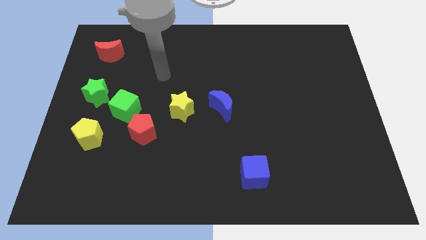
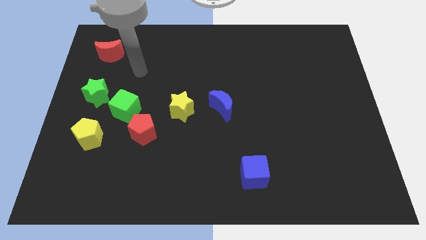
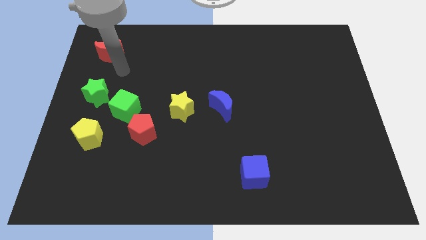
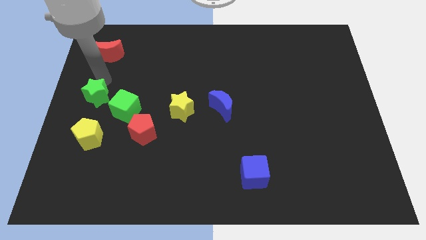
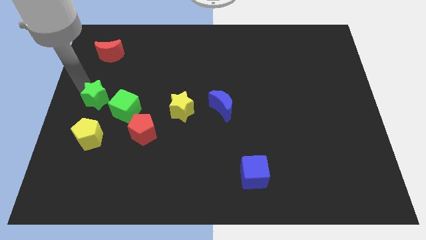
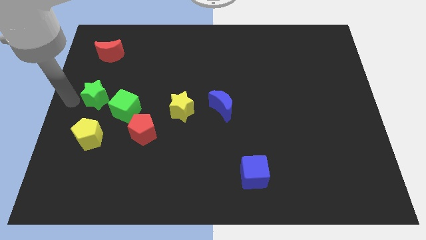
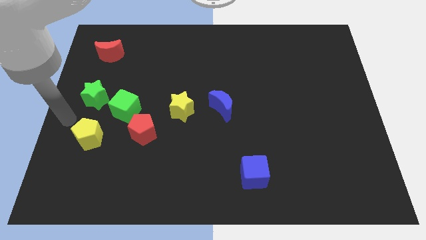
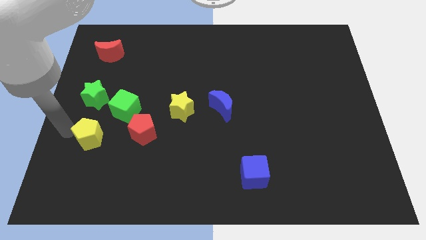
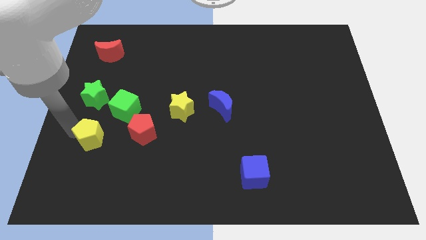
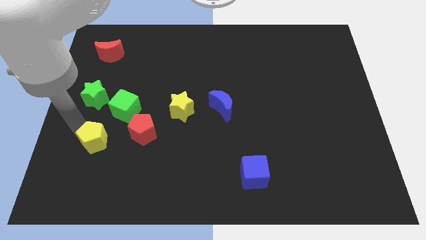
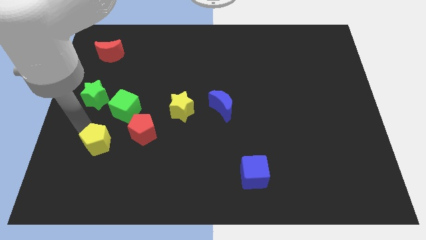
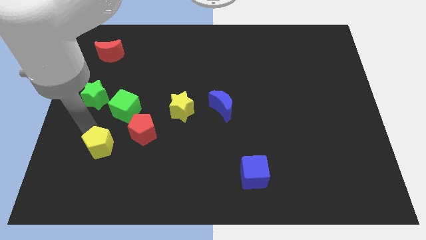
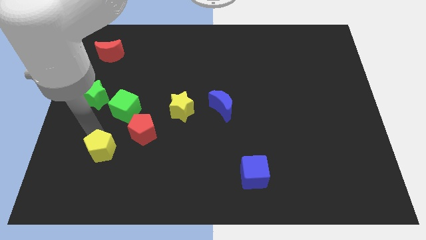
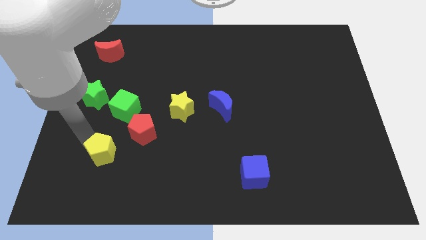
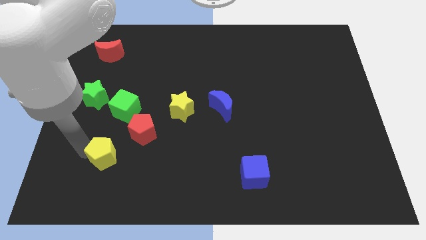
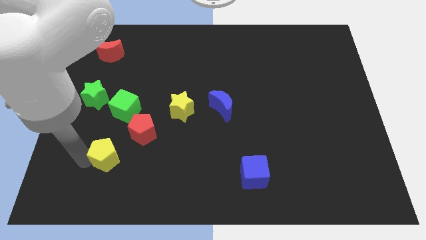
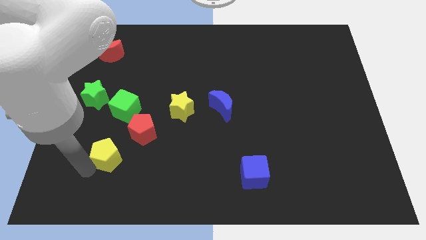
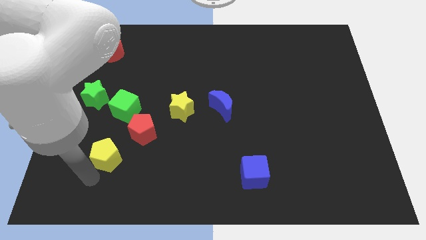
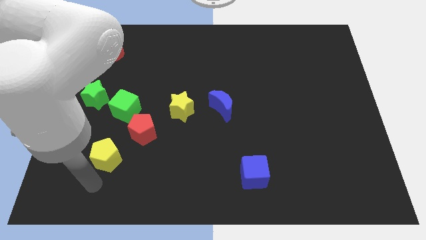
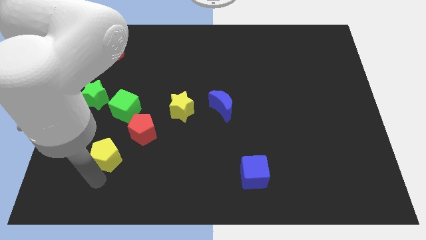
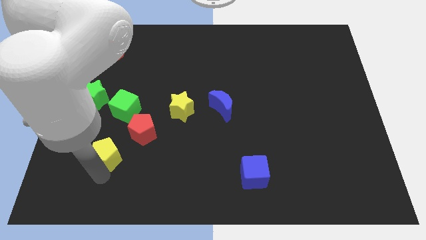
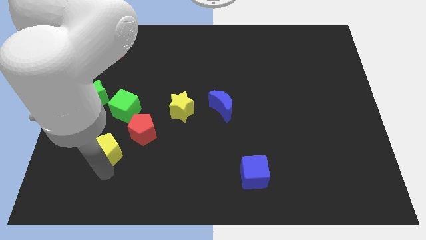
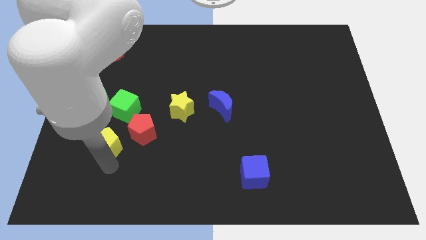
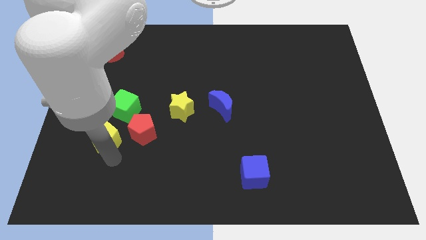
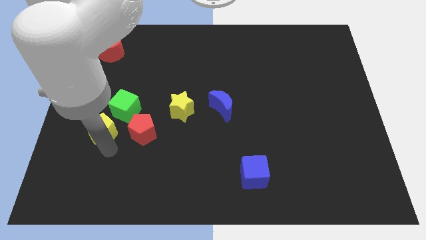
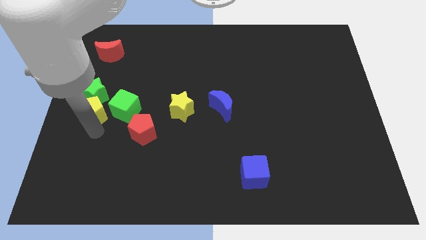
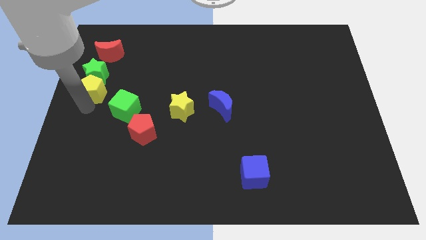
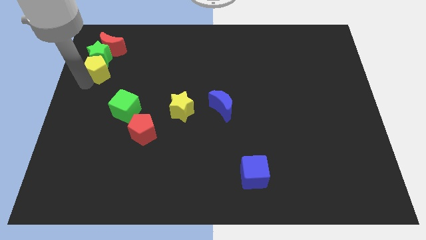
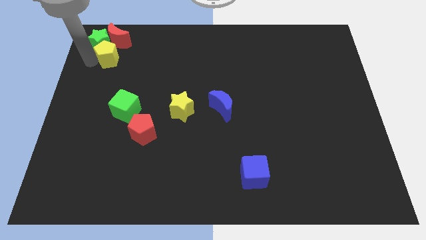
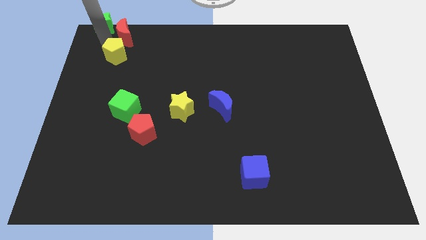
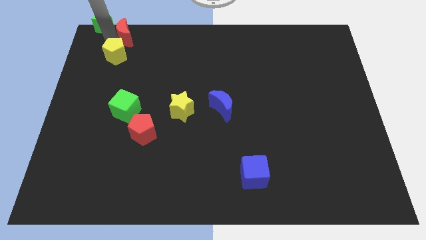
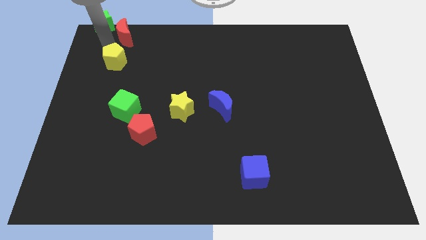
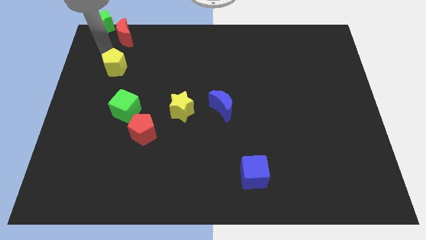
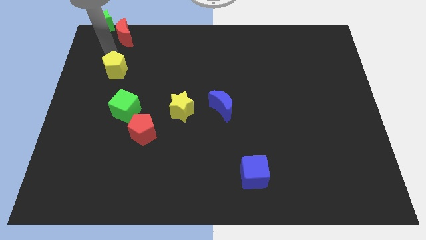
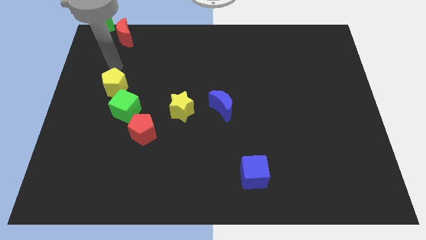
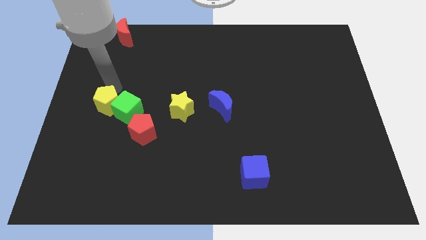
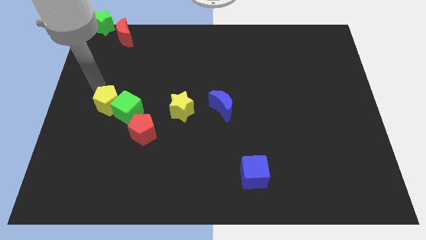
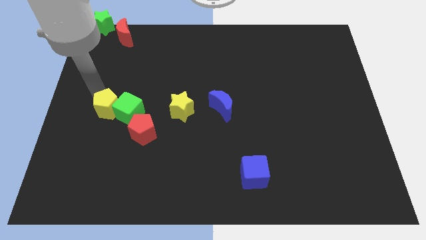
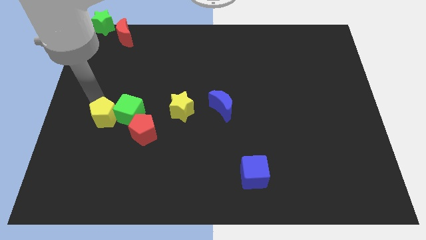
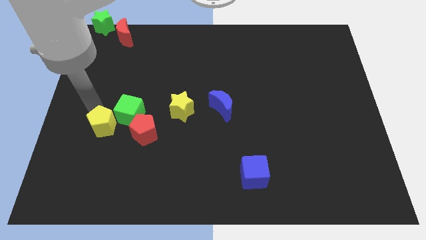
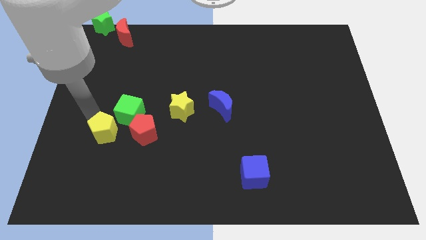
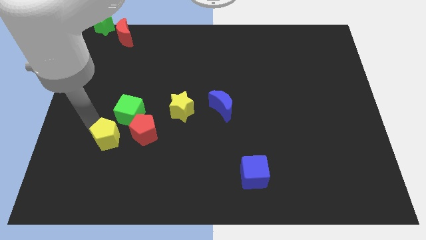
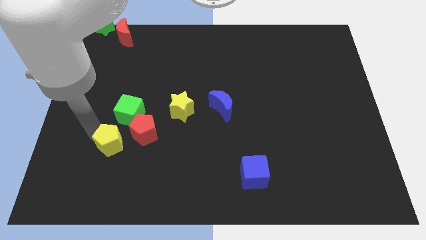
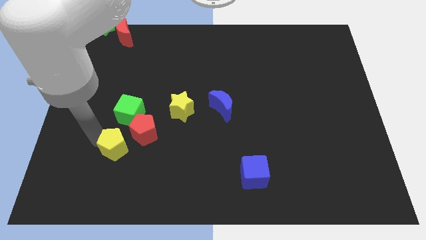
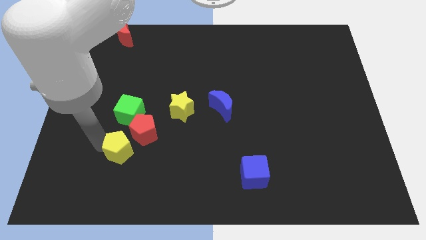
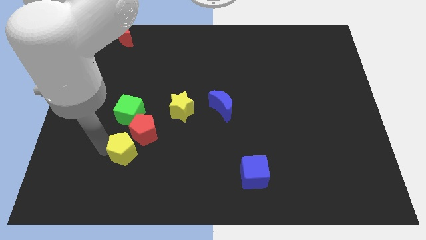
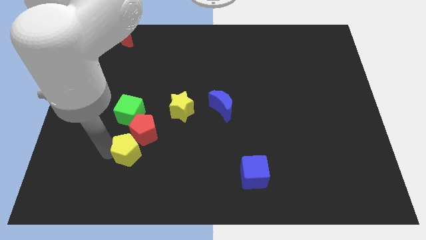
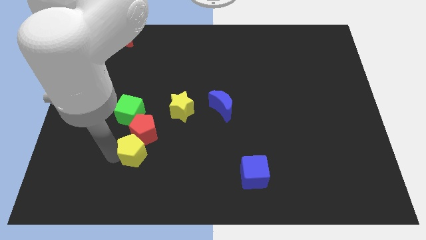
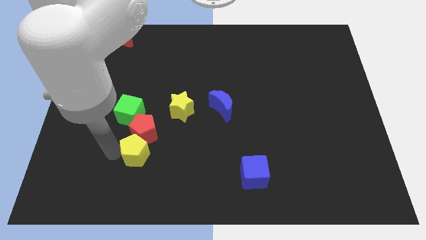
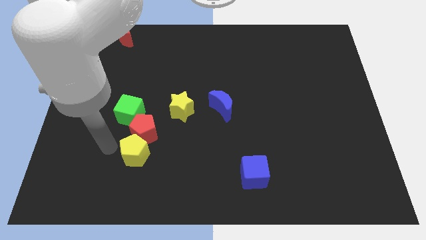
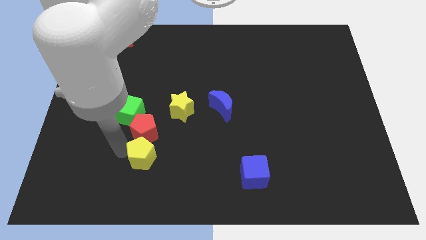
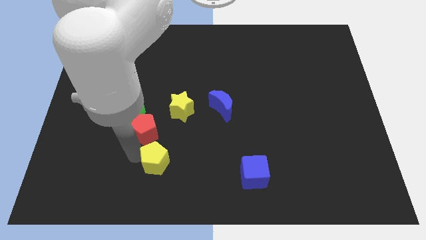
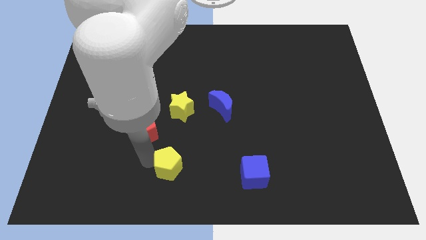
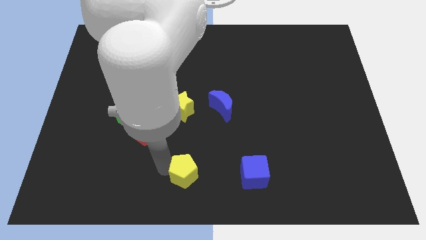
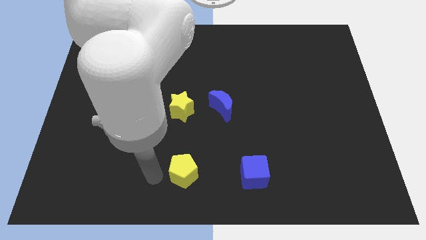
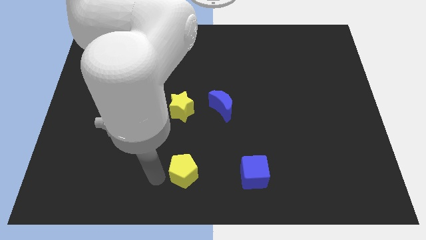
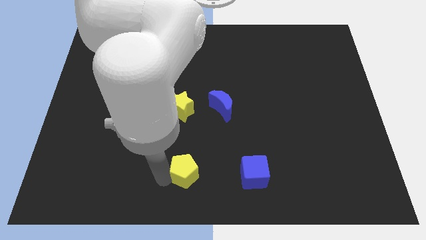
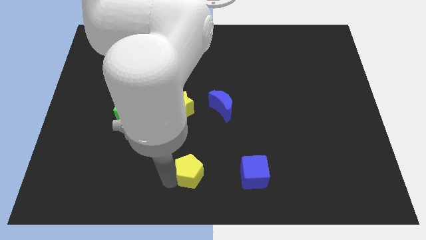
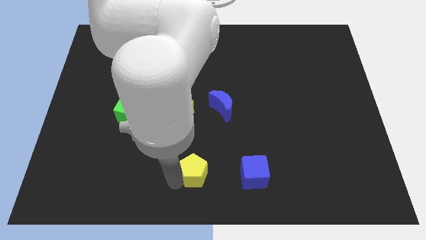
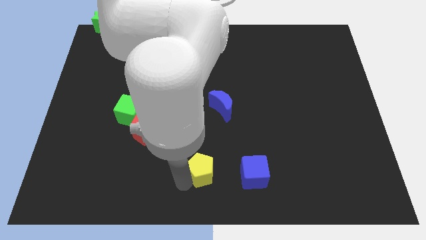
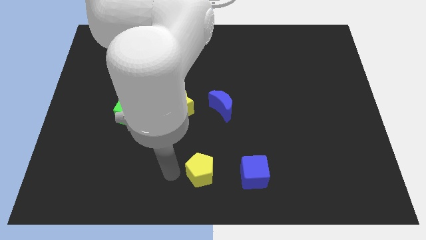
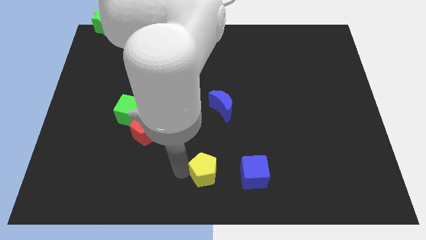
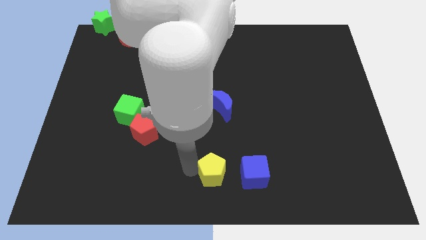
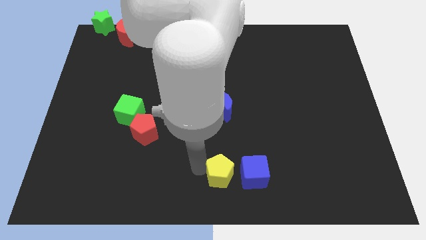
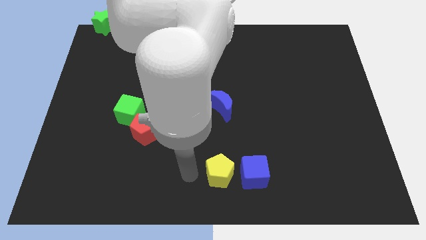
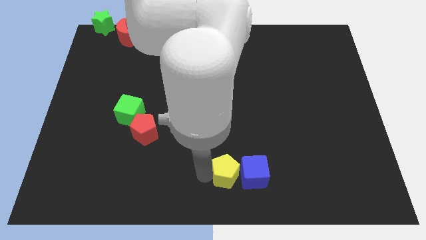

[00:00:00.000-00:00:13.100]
slide the yellow pentagon close to the blue cube

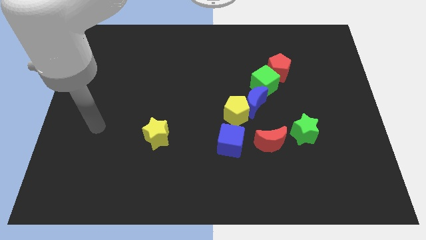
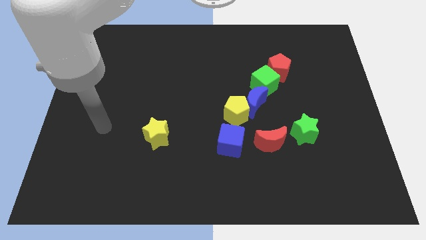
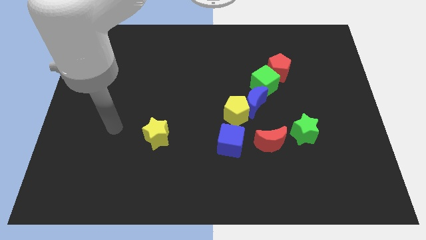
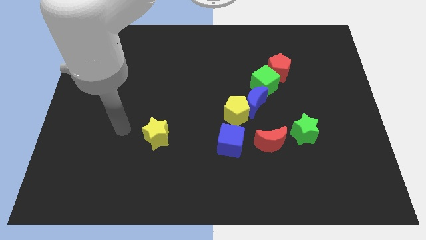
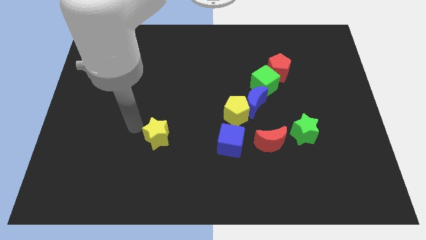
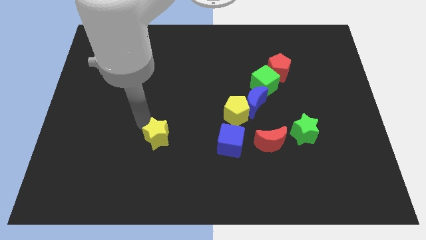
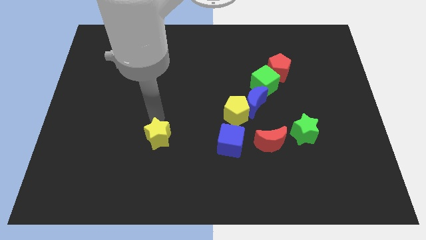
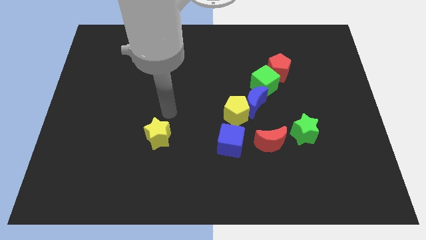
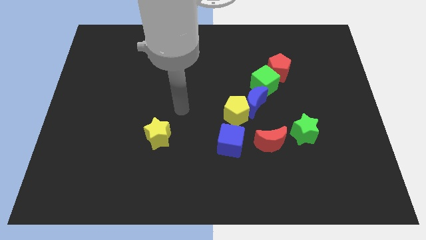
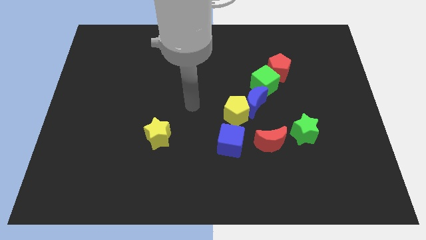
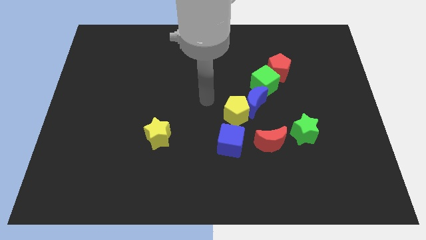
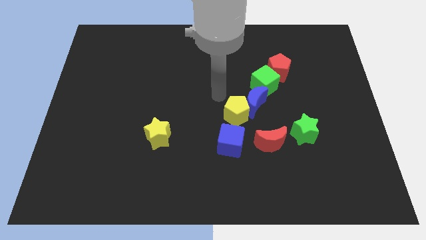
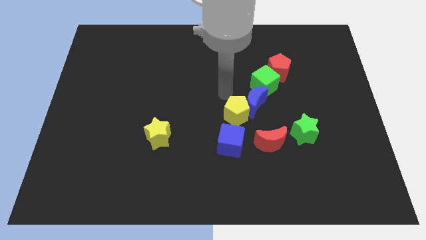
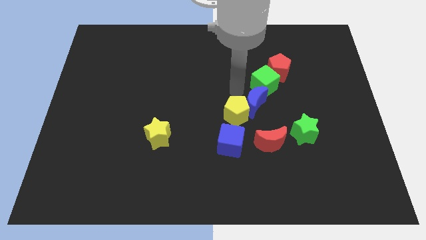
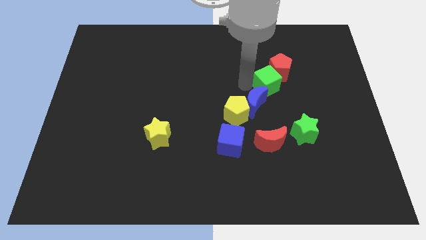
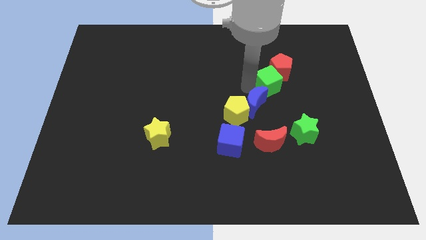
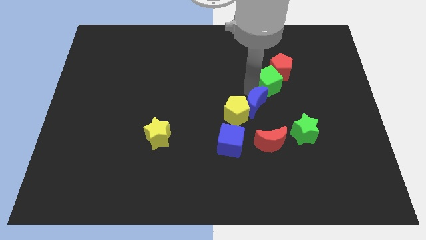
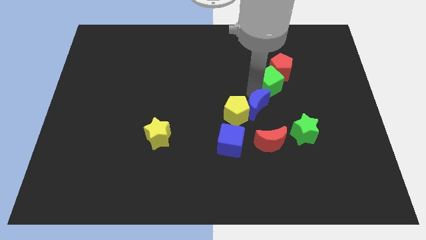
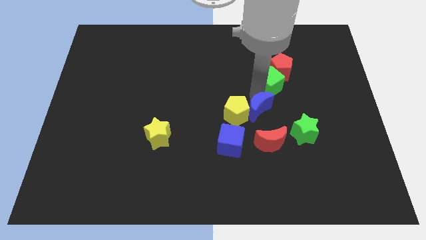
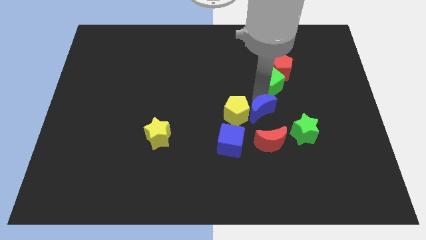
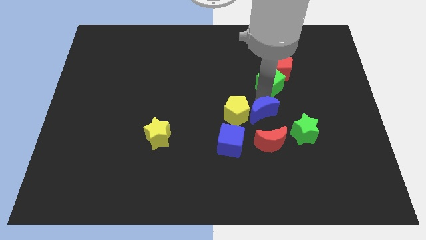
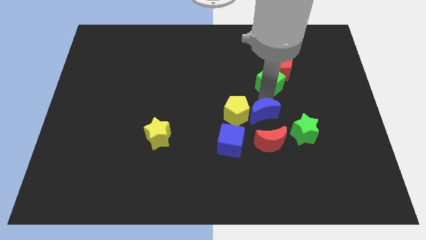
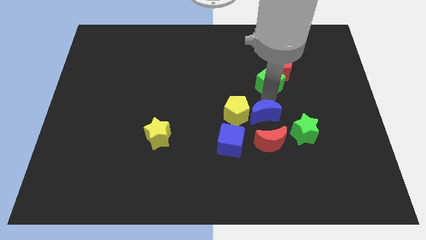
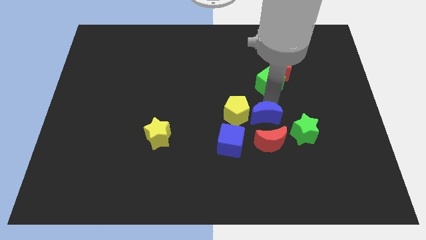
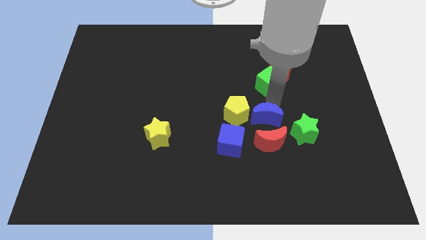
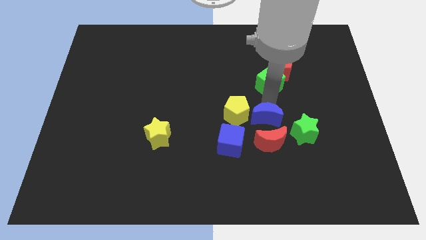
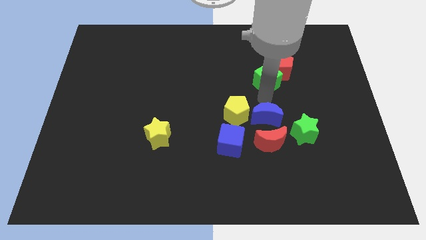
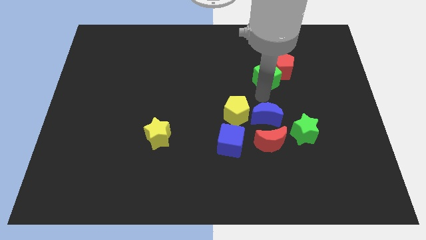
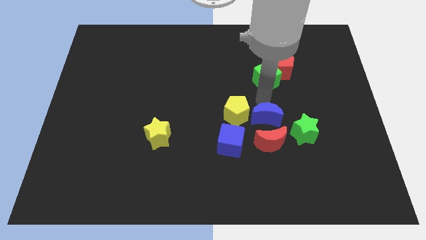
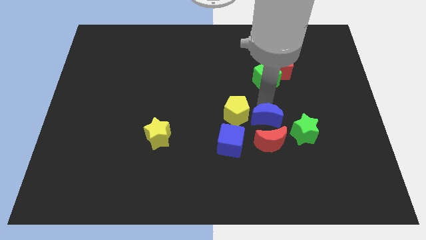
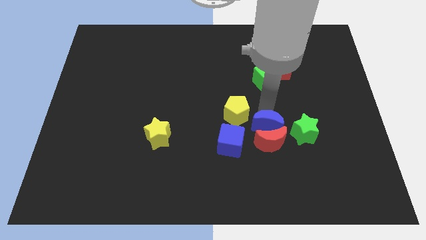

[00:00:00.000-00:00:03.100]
slide the blue moon to the red moon
